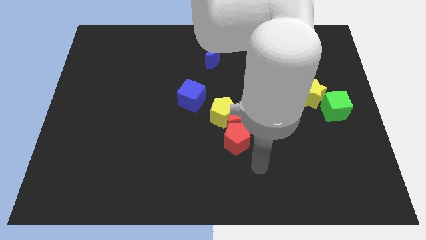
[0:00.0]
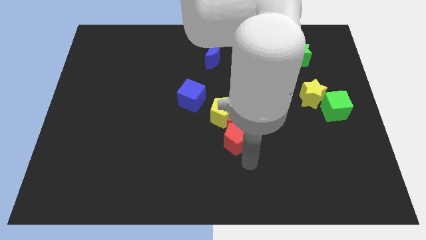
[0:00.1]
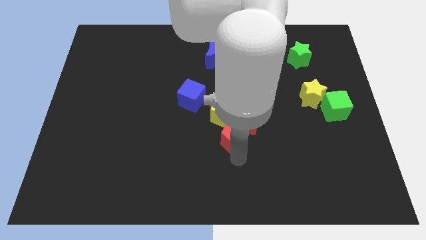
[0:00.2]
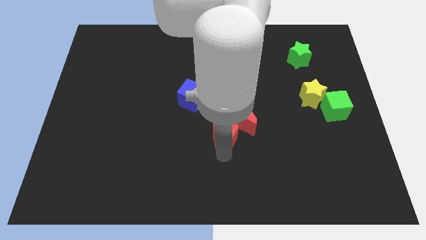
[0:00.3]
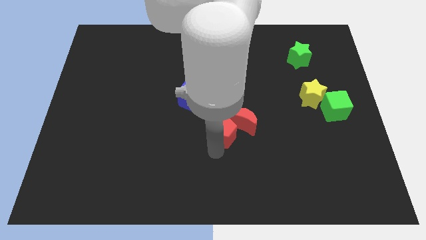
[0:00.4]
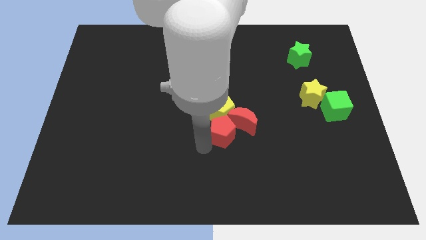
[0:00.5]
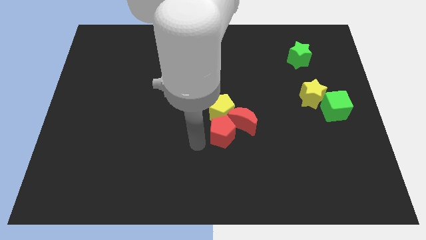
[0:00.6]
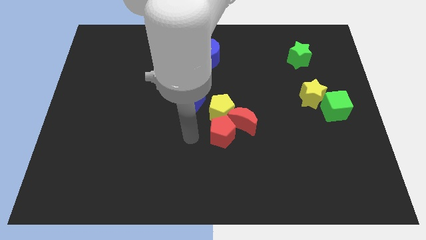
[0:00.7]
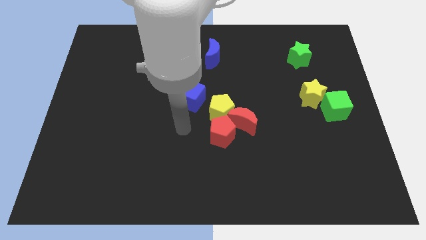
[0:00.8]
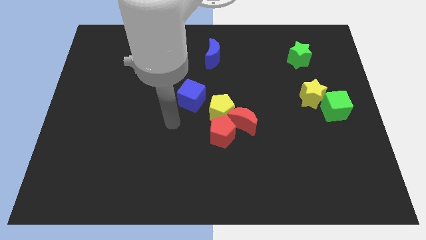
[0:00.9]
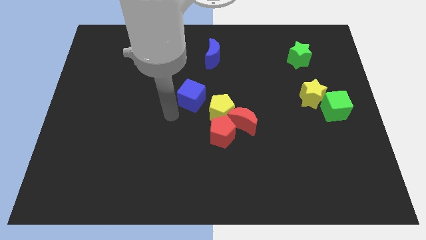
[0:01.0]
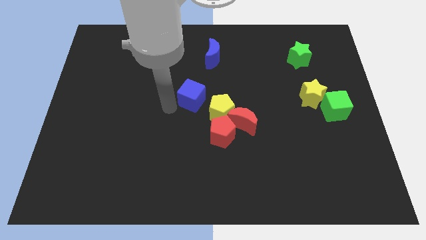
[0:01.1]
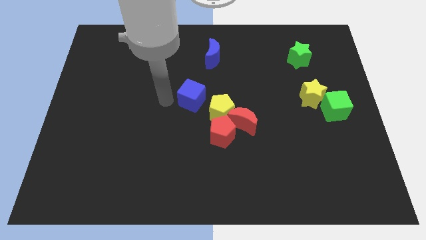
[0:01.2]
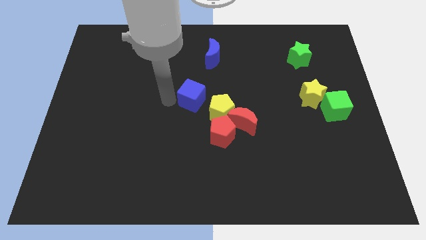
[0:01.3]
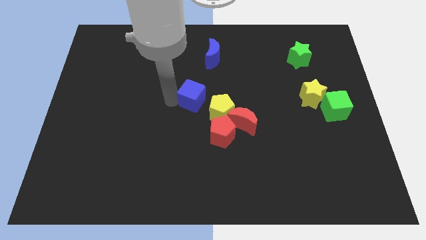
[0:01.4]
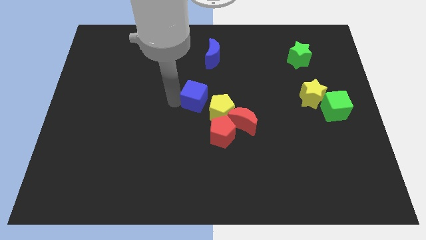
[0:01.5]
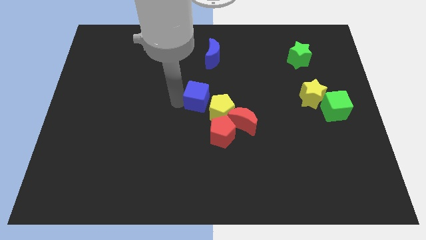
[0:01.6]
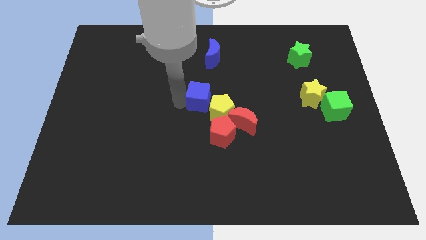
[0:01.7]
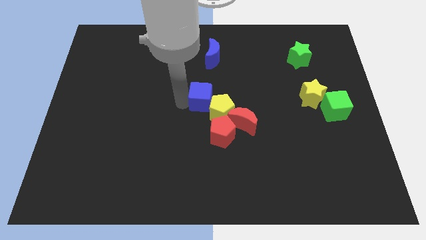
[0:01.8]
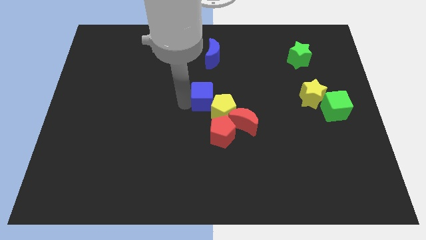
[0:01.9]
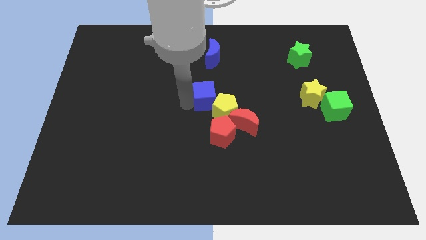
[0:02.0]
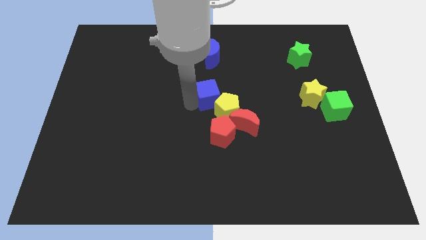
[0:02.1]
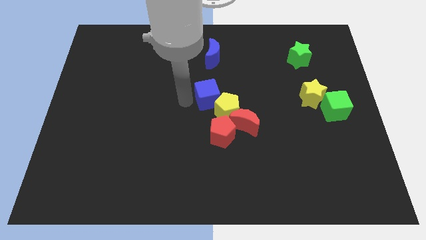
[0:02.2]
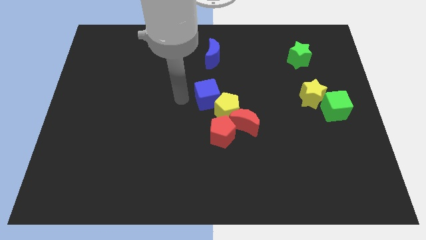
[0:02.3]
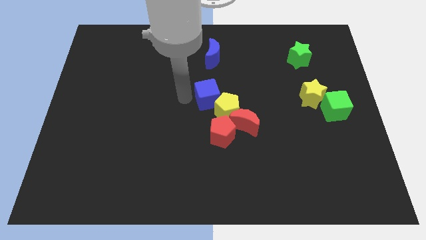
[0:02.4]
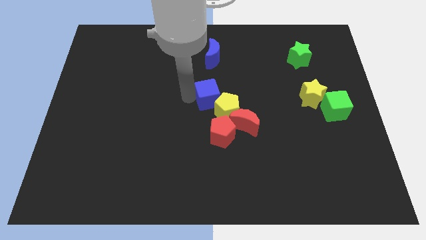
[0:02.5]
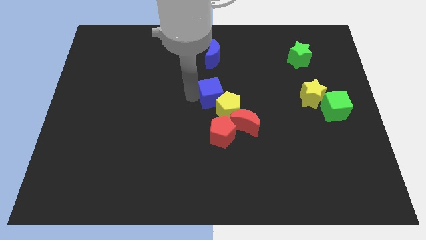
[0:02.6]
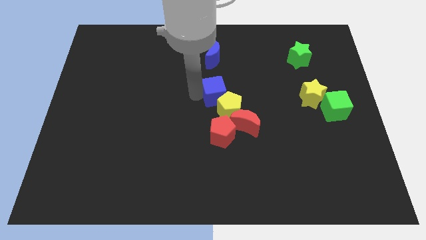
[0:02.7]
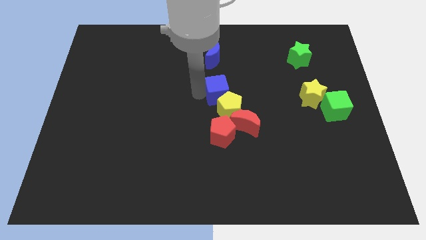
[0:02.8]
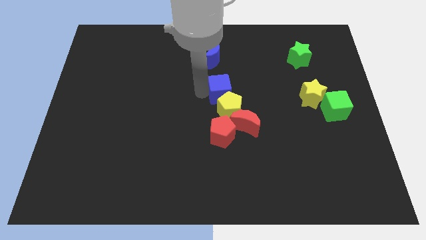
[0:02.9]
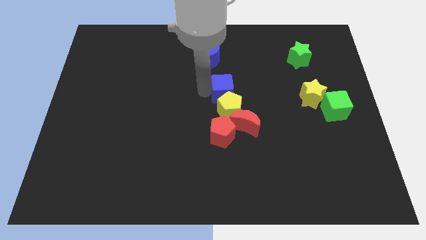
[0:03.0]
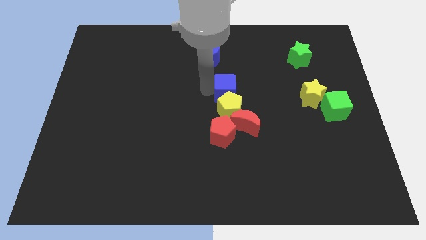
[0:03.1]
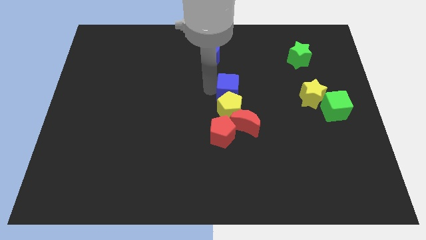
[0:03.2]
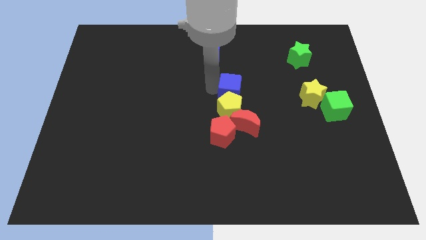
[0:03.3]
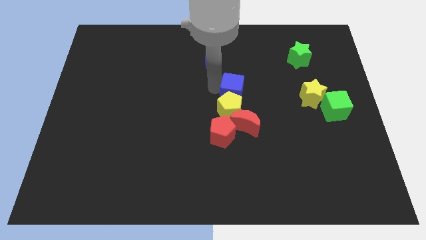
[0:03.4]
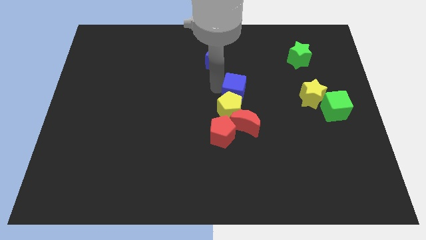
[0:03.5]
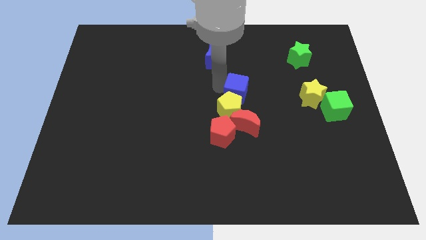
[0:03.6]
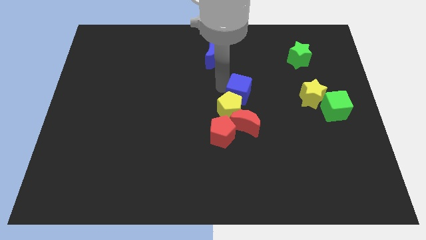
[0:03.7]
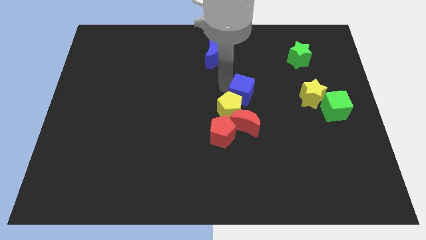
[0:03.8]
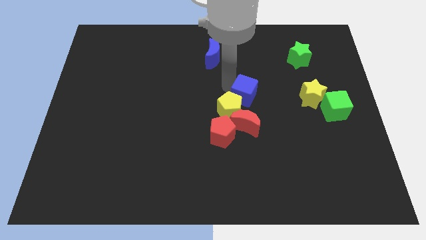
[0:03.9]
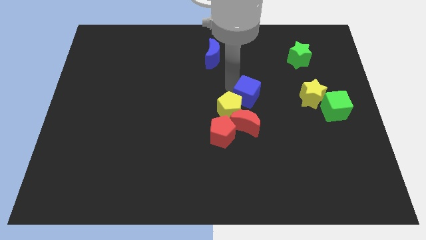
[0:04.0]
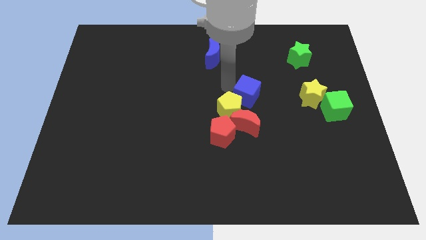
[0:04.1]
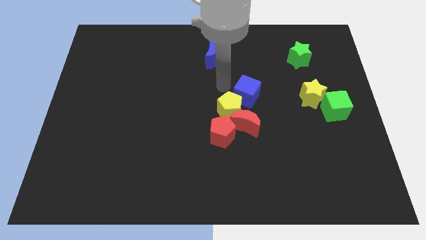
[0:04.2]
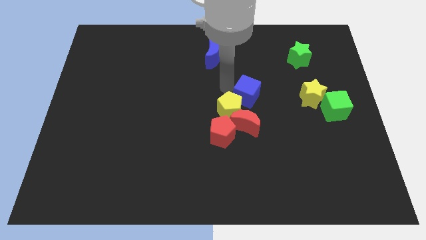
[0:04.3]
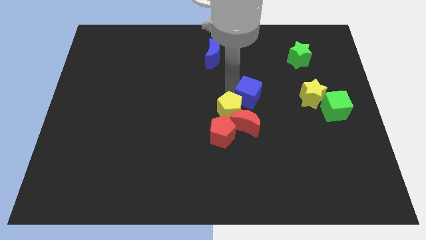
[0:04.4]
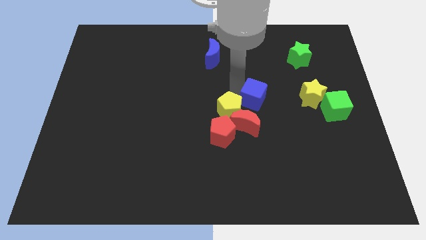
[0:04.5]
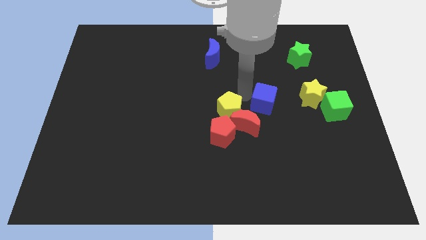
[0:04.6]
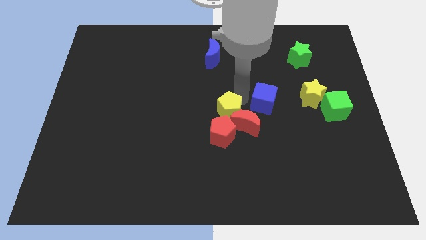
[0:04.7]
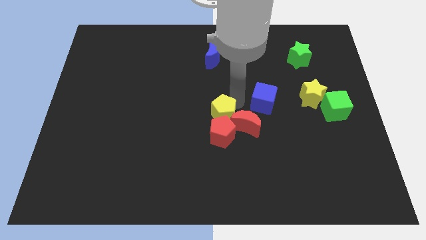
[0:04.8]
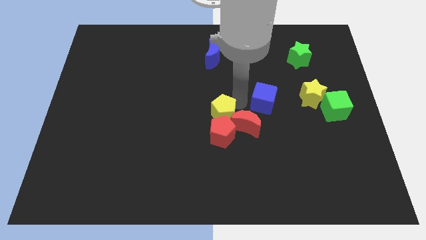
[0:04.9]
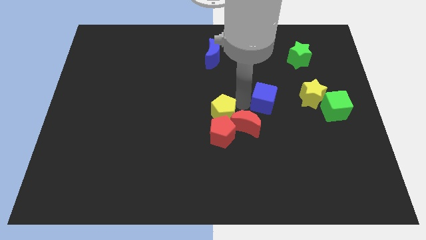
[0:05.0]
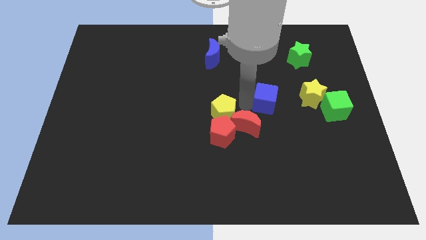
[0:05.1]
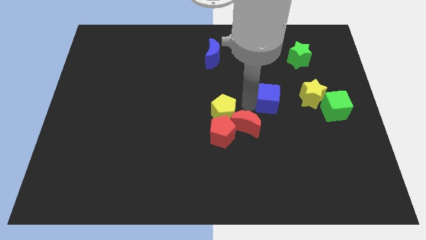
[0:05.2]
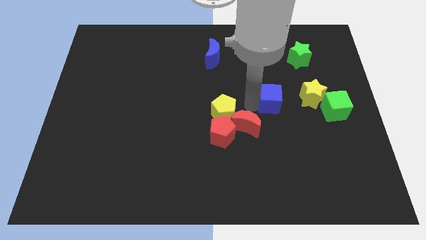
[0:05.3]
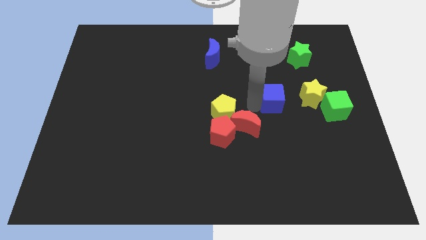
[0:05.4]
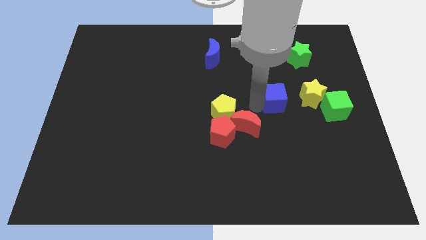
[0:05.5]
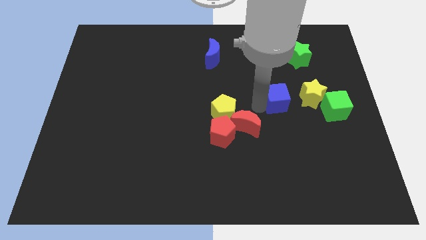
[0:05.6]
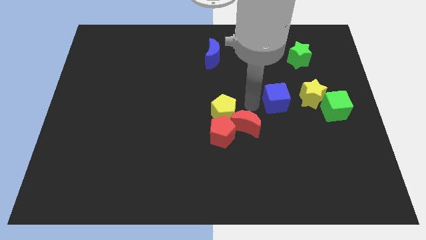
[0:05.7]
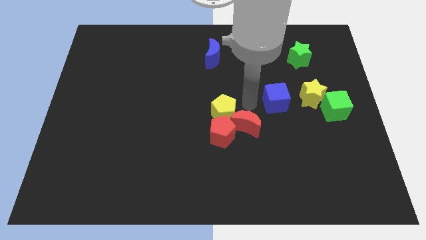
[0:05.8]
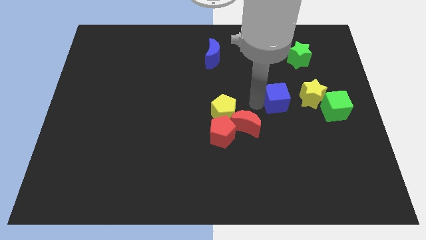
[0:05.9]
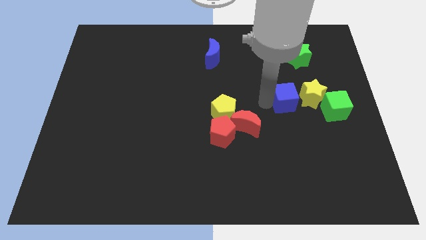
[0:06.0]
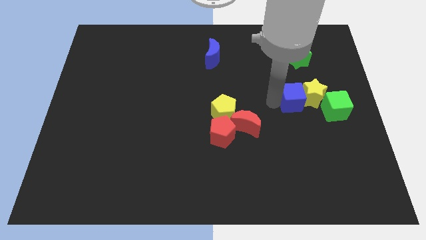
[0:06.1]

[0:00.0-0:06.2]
slide the blue cube towards the yellow star

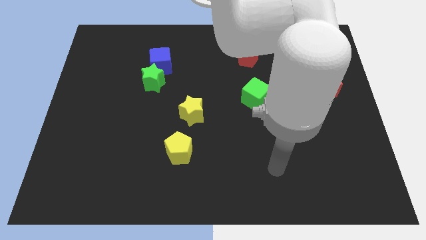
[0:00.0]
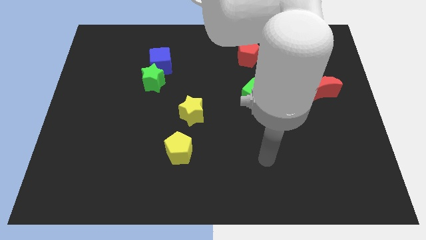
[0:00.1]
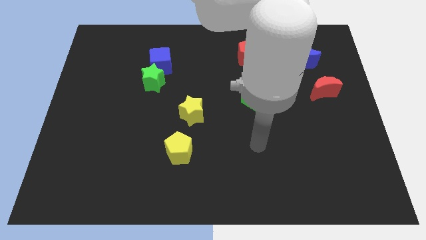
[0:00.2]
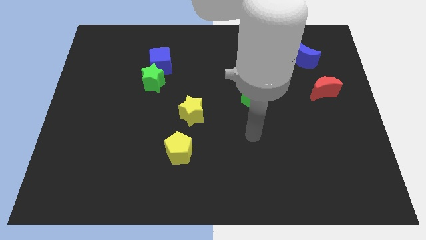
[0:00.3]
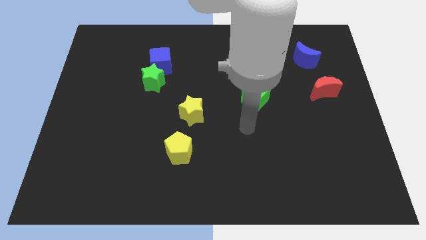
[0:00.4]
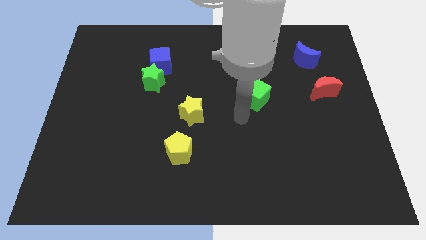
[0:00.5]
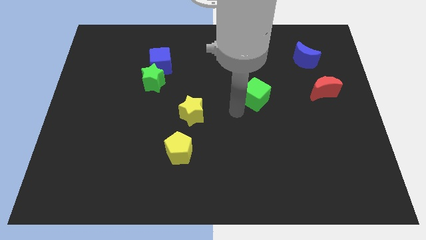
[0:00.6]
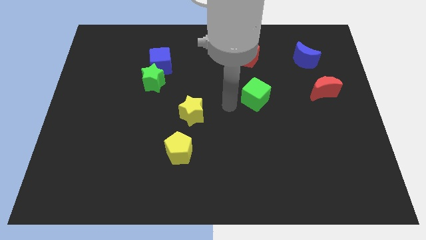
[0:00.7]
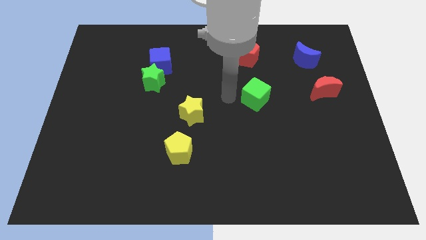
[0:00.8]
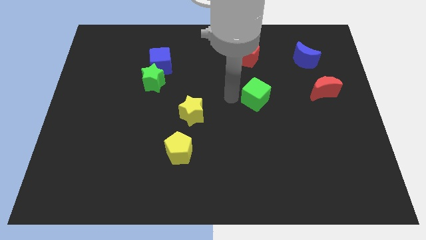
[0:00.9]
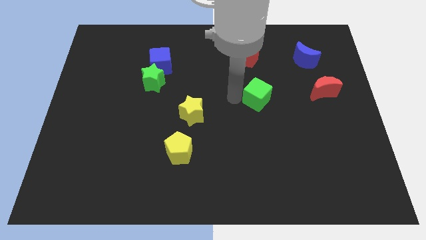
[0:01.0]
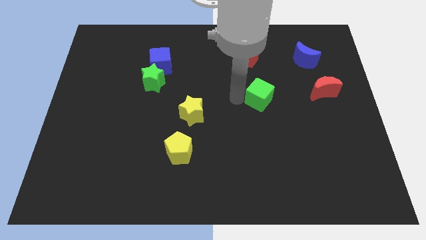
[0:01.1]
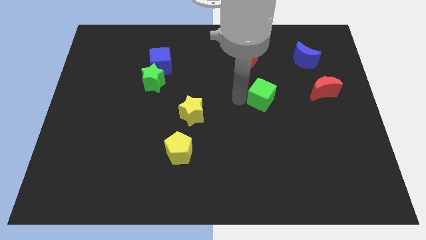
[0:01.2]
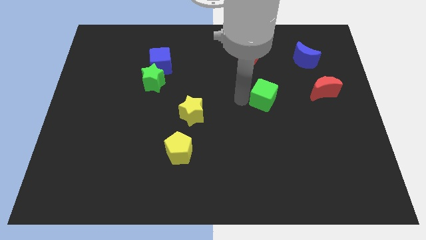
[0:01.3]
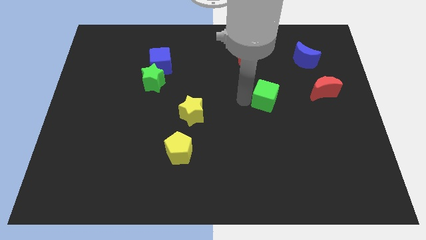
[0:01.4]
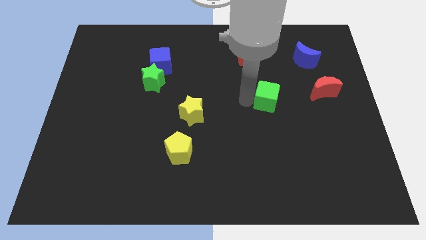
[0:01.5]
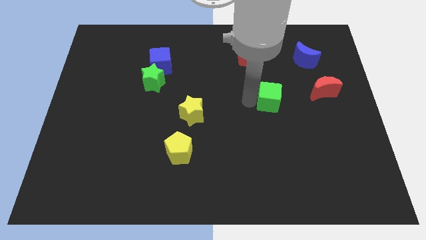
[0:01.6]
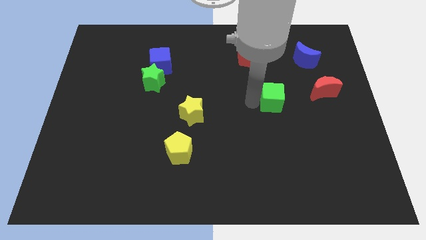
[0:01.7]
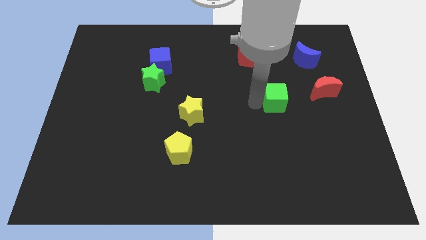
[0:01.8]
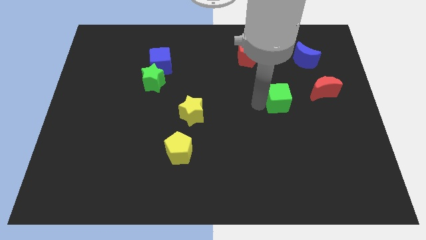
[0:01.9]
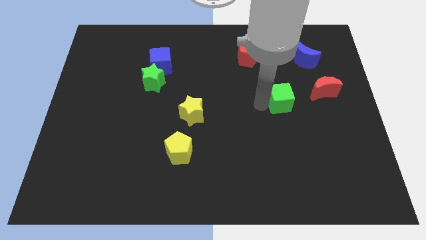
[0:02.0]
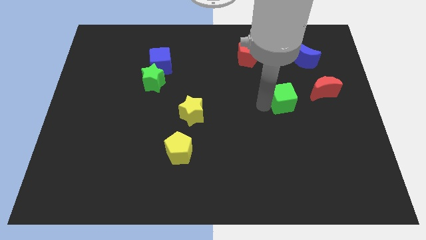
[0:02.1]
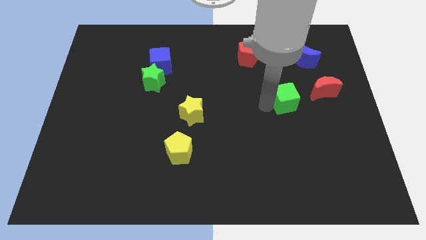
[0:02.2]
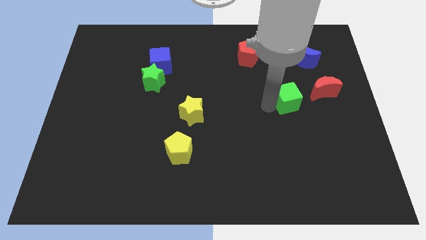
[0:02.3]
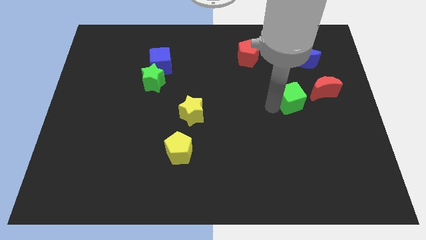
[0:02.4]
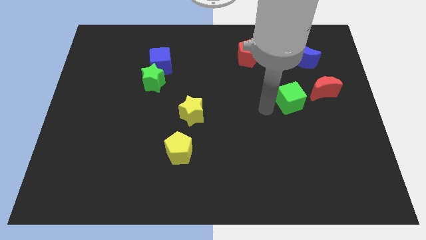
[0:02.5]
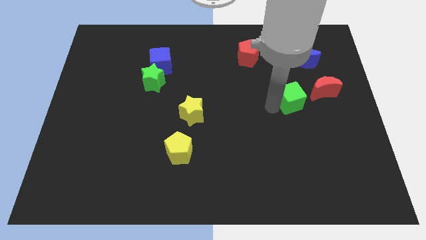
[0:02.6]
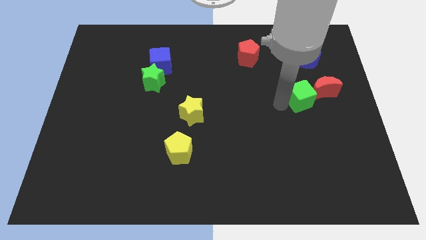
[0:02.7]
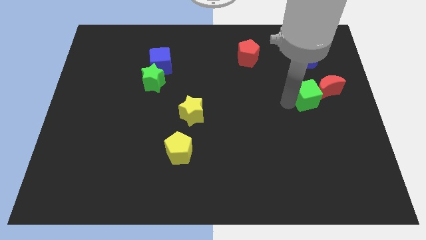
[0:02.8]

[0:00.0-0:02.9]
put the green cube to the red moon
